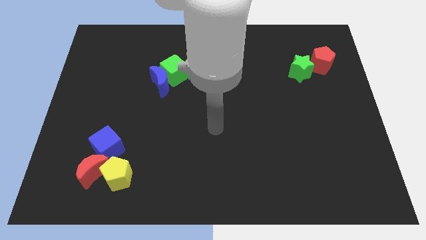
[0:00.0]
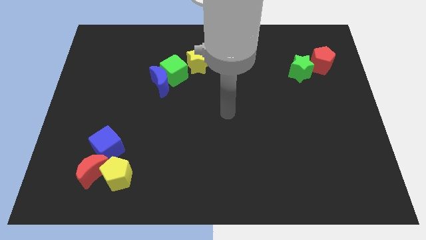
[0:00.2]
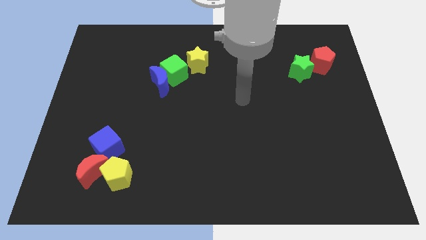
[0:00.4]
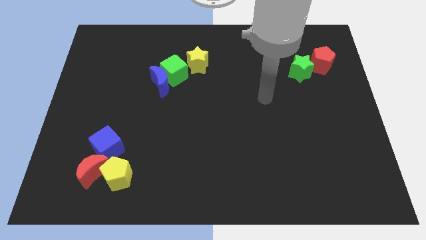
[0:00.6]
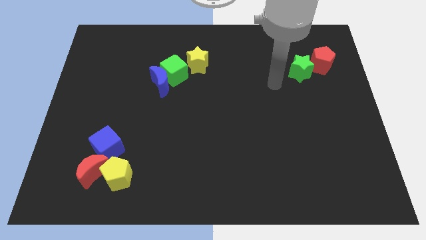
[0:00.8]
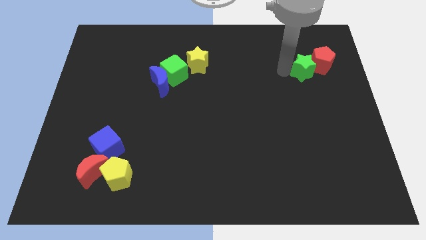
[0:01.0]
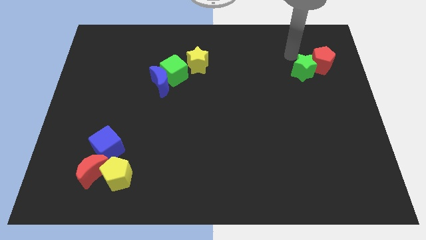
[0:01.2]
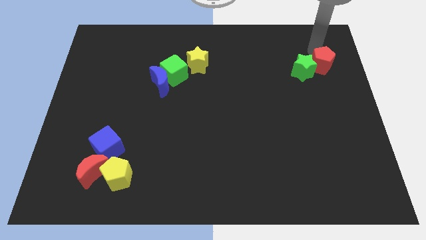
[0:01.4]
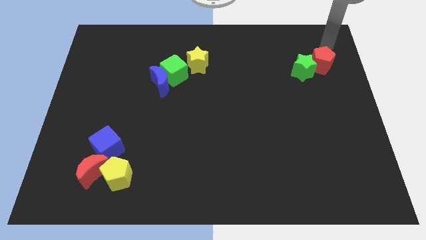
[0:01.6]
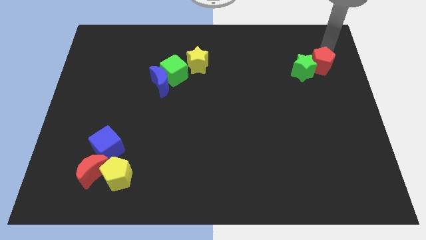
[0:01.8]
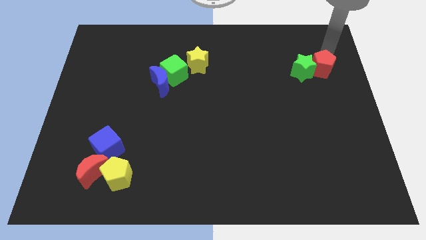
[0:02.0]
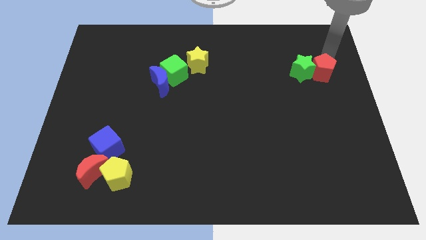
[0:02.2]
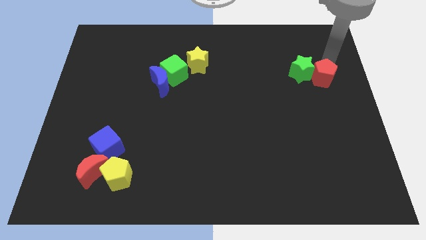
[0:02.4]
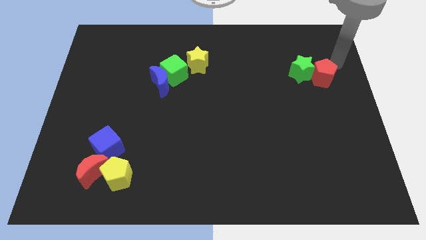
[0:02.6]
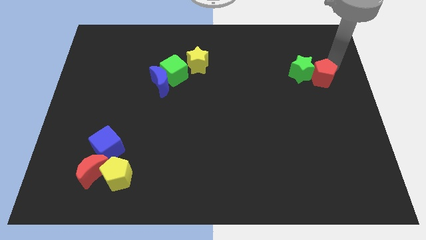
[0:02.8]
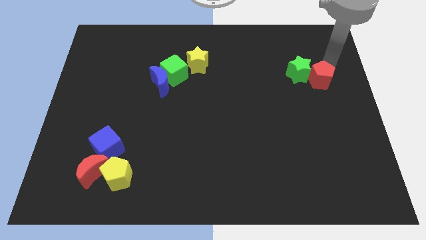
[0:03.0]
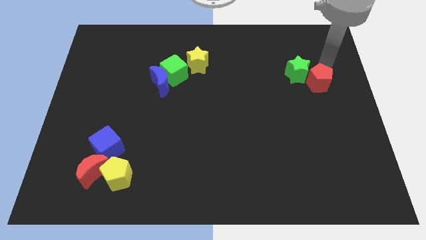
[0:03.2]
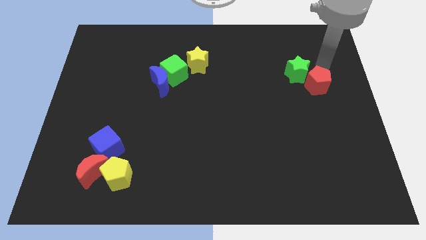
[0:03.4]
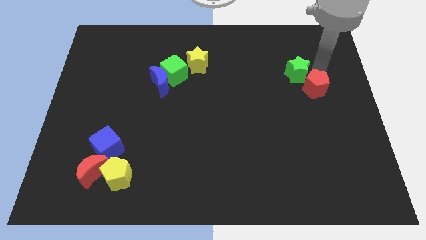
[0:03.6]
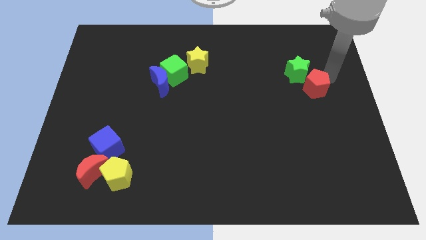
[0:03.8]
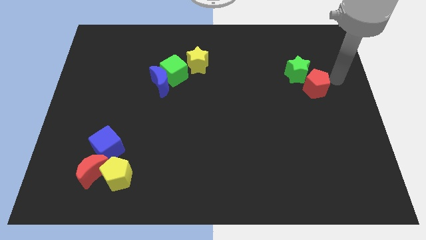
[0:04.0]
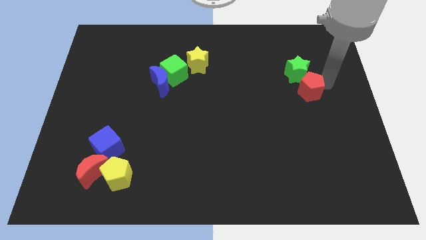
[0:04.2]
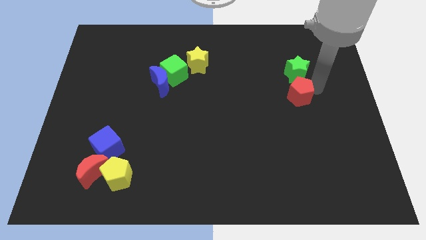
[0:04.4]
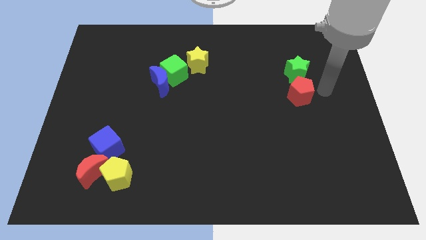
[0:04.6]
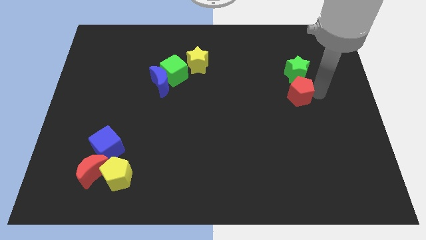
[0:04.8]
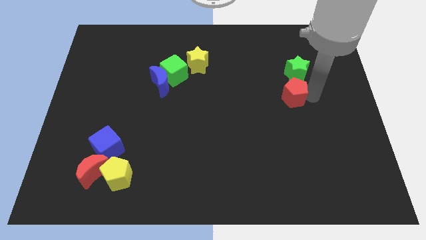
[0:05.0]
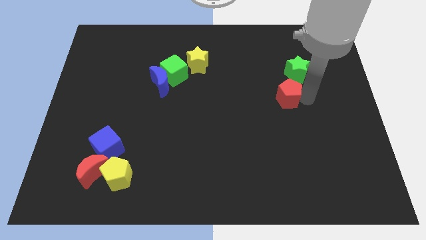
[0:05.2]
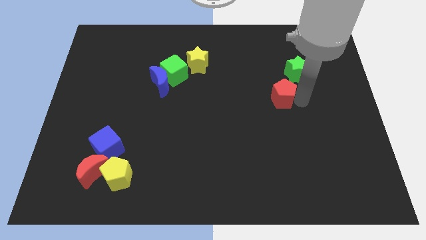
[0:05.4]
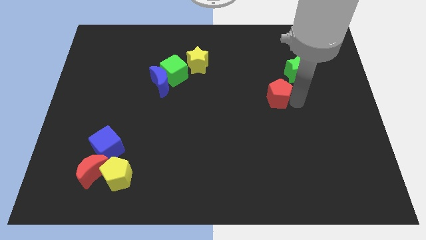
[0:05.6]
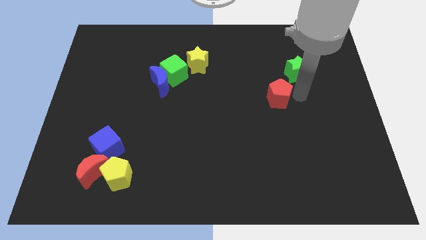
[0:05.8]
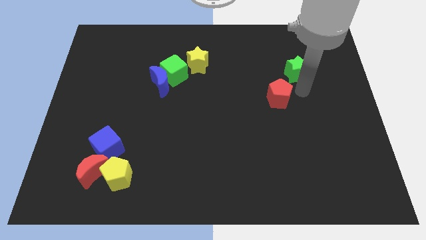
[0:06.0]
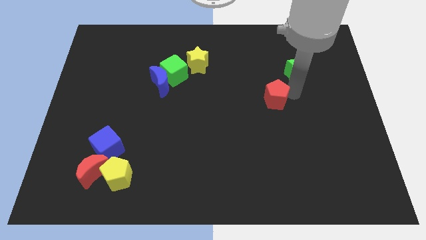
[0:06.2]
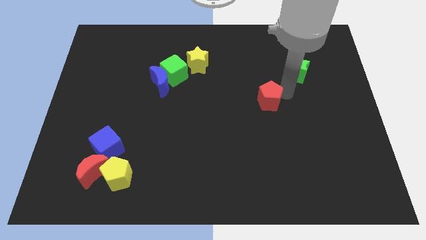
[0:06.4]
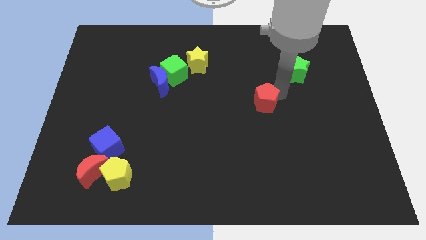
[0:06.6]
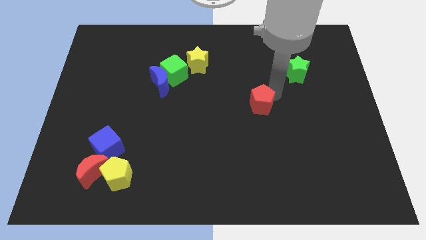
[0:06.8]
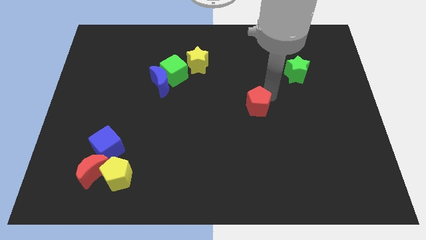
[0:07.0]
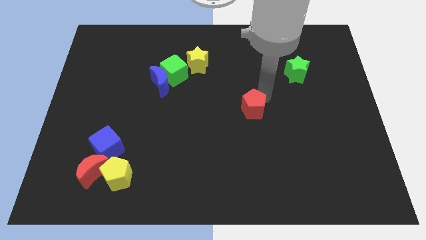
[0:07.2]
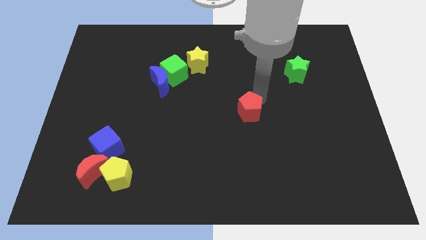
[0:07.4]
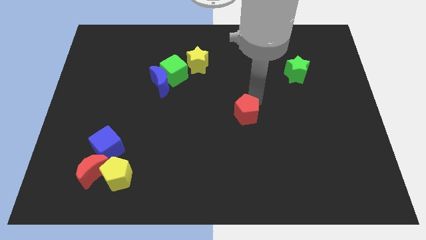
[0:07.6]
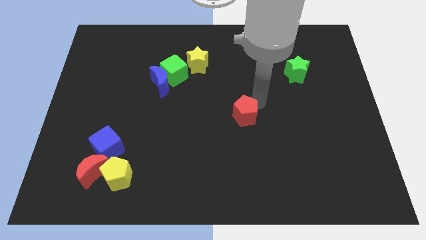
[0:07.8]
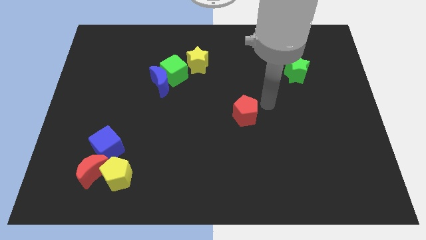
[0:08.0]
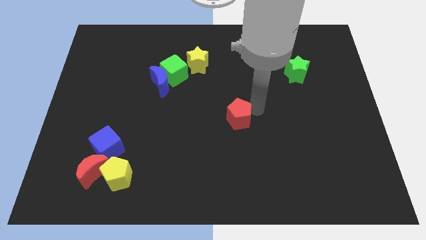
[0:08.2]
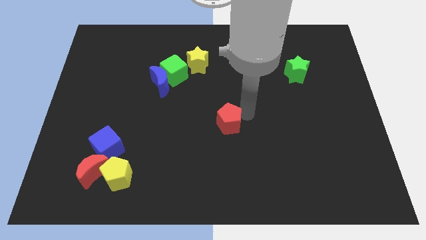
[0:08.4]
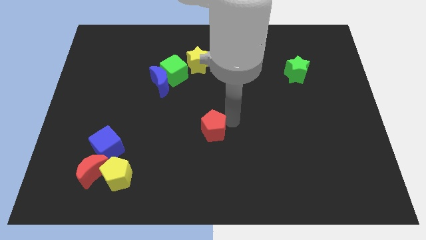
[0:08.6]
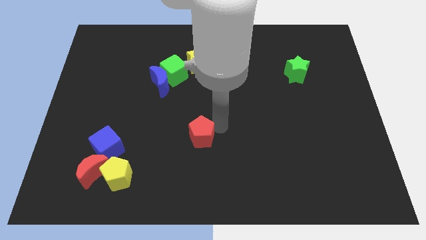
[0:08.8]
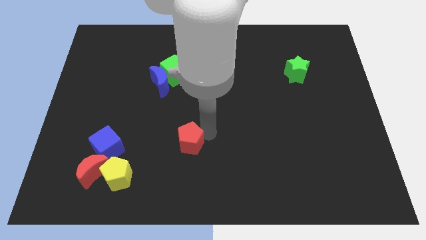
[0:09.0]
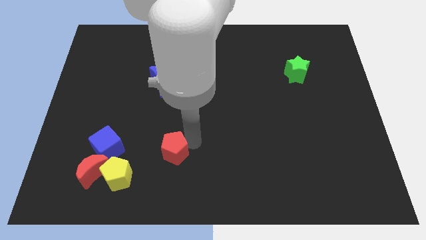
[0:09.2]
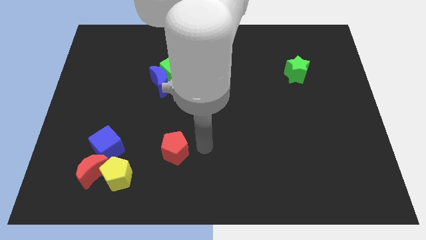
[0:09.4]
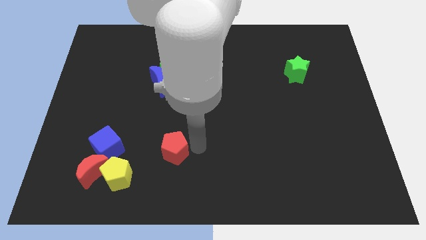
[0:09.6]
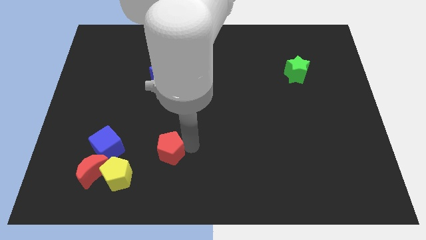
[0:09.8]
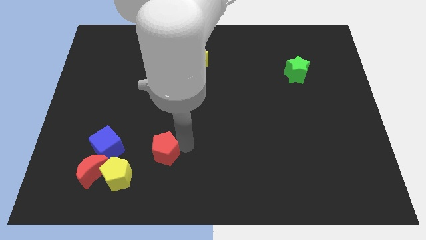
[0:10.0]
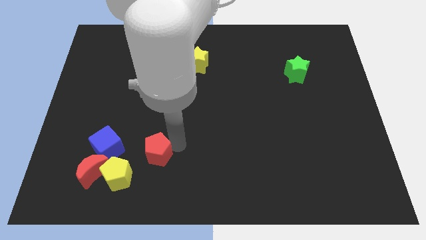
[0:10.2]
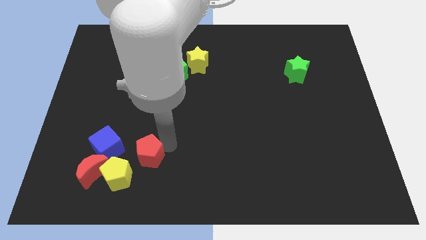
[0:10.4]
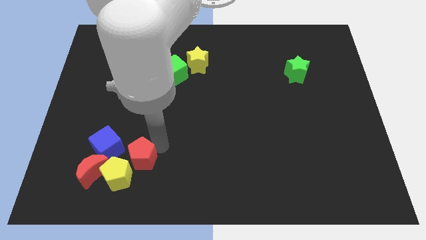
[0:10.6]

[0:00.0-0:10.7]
put the red pentagon to the yellow pentagon

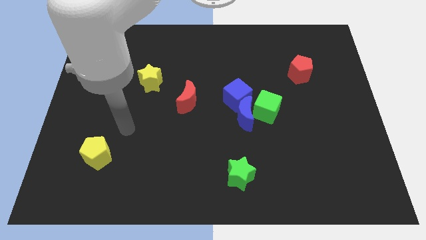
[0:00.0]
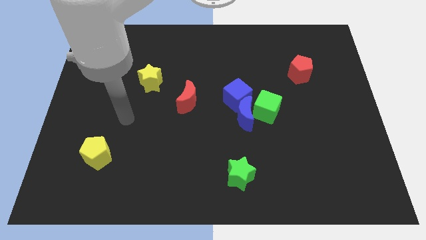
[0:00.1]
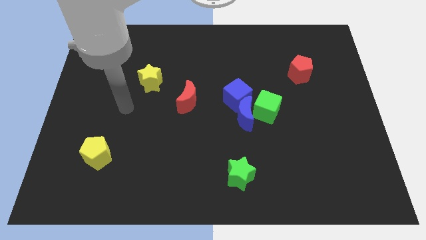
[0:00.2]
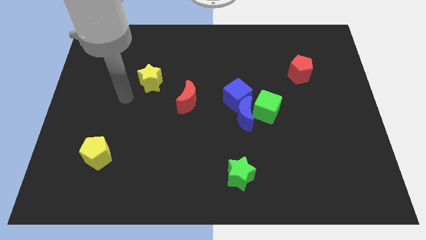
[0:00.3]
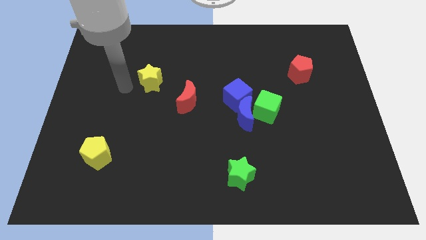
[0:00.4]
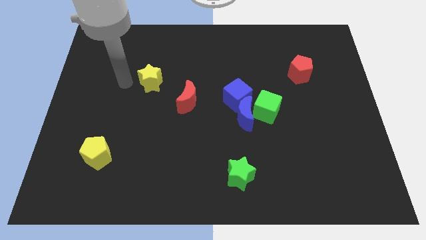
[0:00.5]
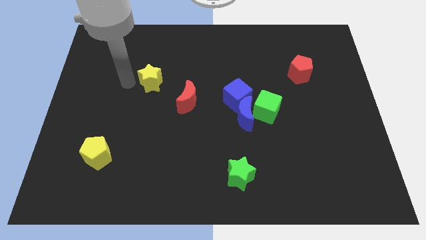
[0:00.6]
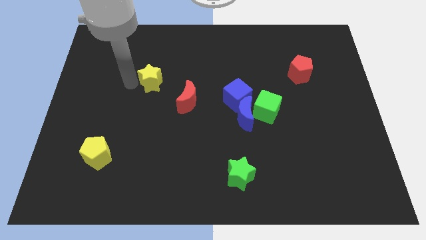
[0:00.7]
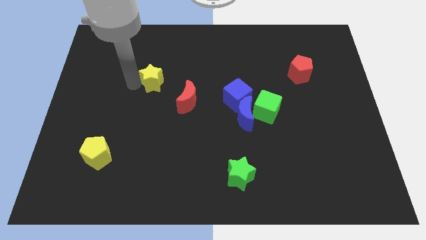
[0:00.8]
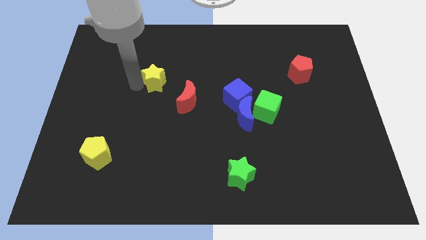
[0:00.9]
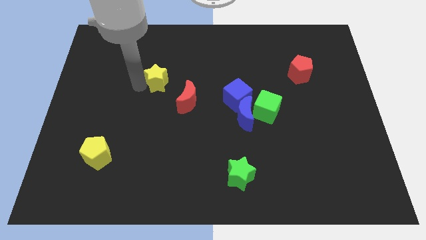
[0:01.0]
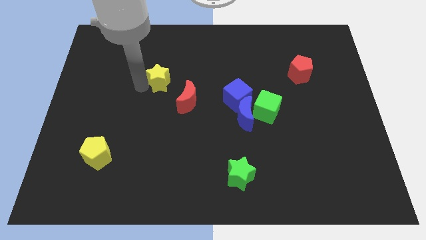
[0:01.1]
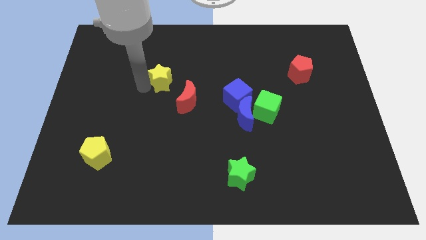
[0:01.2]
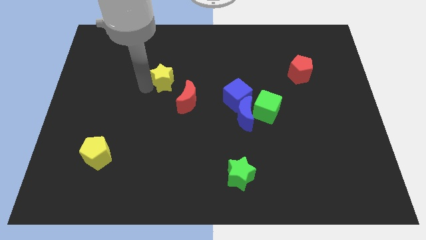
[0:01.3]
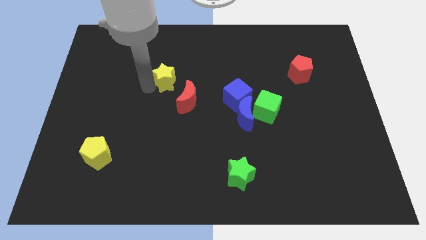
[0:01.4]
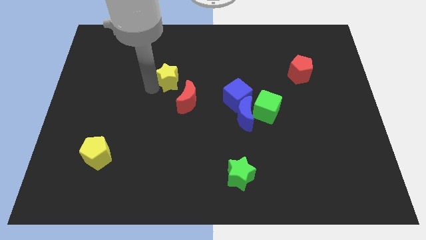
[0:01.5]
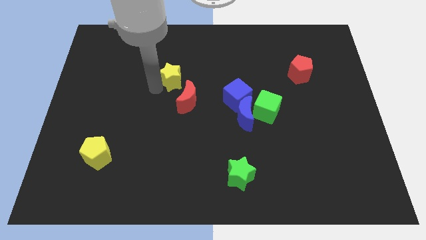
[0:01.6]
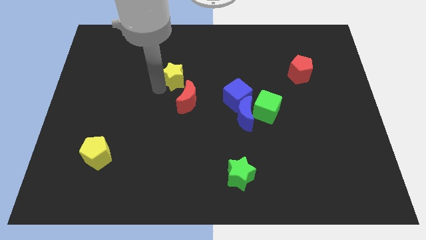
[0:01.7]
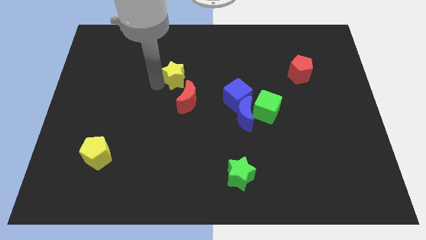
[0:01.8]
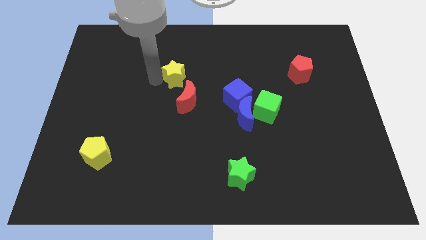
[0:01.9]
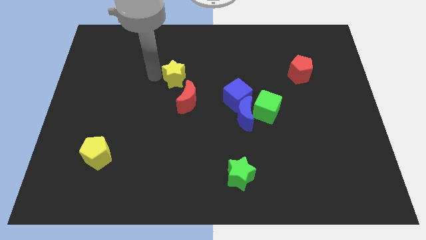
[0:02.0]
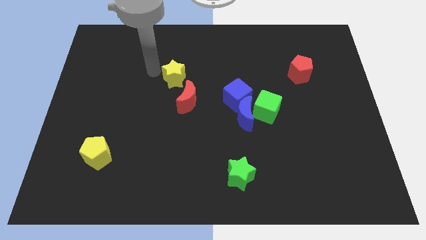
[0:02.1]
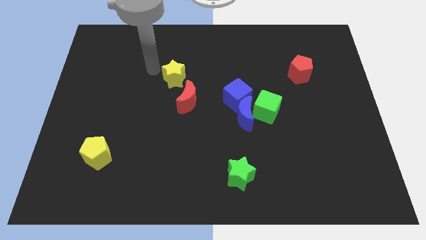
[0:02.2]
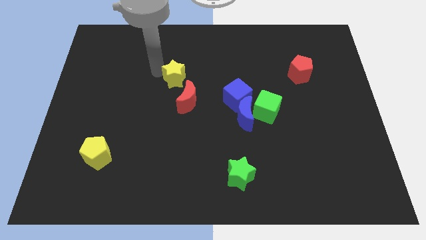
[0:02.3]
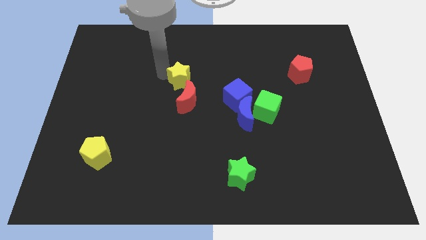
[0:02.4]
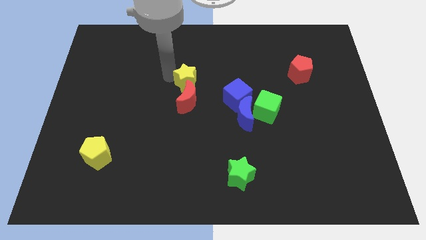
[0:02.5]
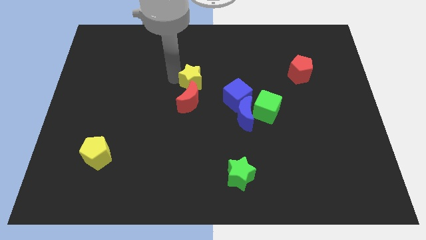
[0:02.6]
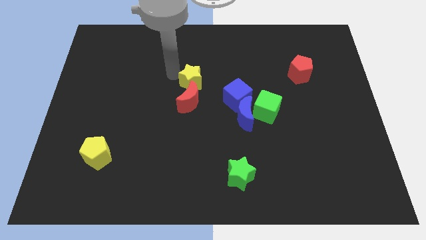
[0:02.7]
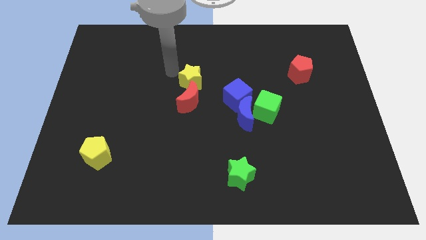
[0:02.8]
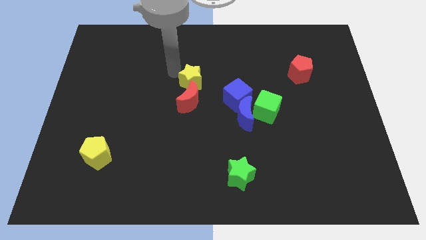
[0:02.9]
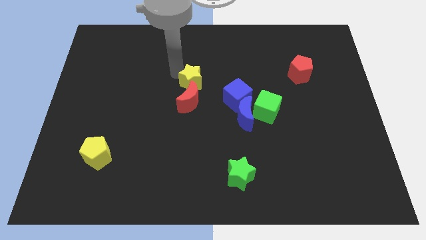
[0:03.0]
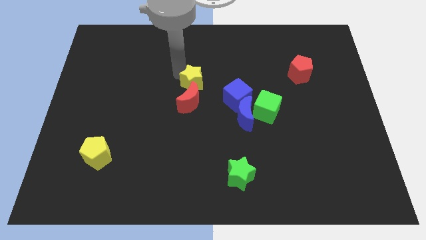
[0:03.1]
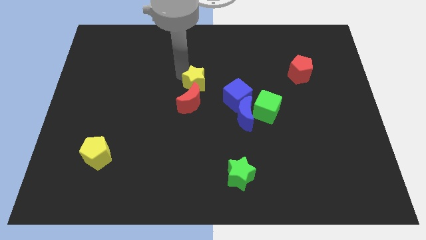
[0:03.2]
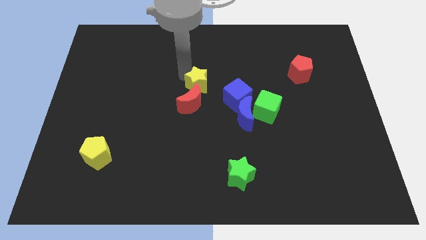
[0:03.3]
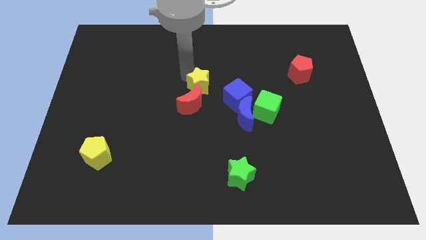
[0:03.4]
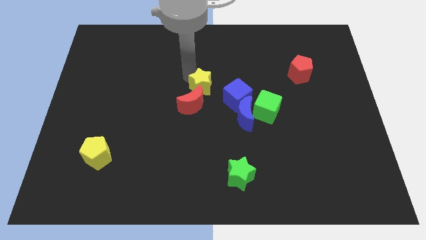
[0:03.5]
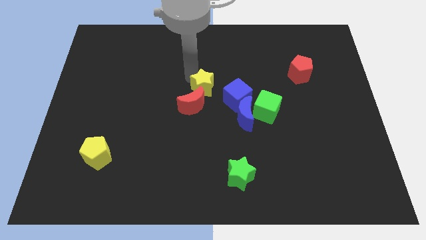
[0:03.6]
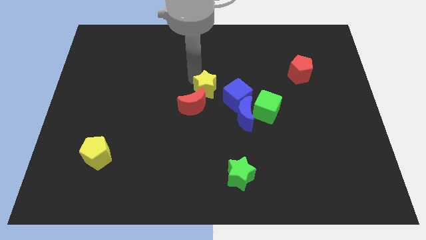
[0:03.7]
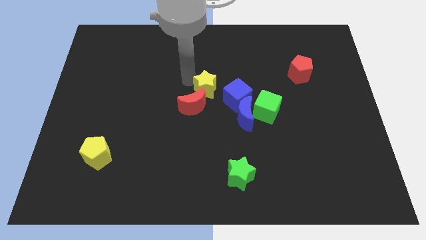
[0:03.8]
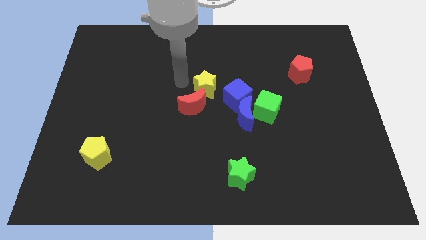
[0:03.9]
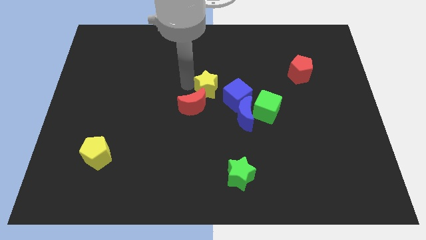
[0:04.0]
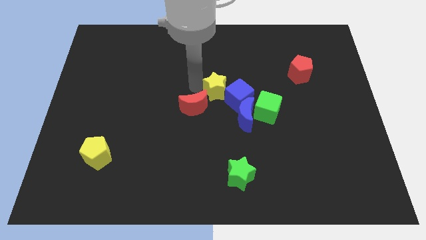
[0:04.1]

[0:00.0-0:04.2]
move the yellow star next to the blue cube
